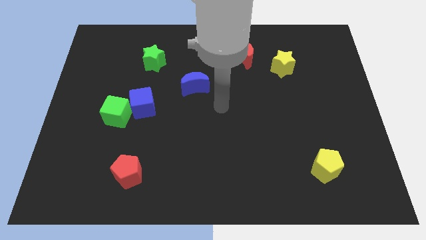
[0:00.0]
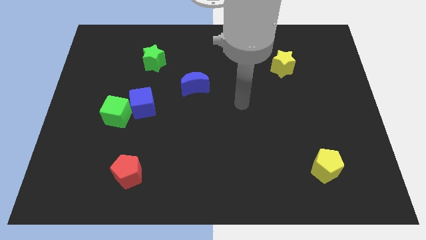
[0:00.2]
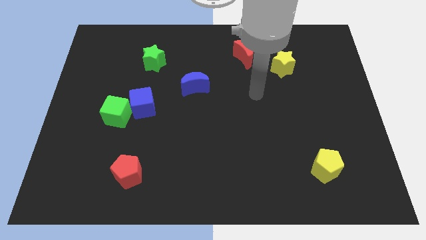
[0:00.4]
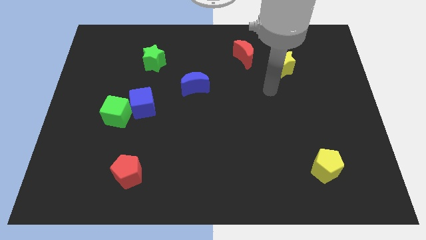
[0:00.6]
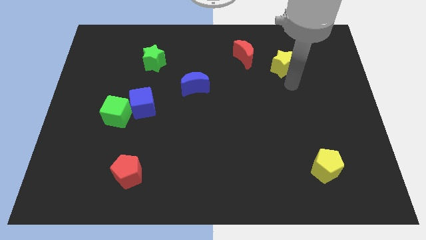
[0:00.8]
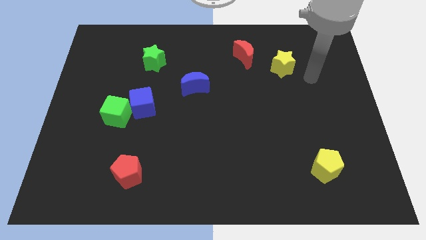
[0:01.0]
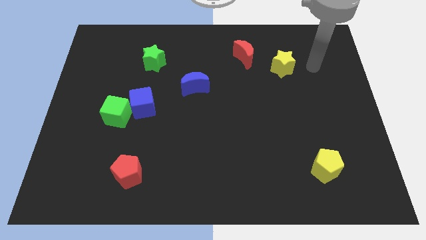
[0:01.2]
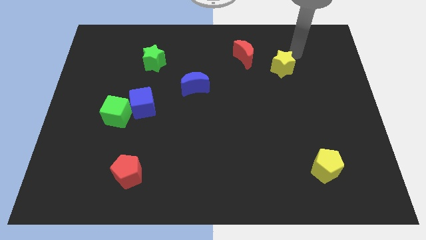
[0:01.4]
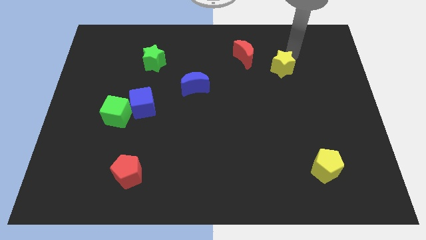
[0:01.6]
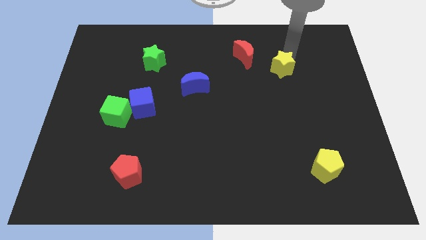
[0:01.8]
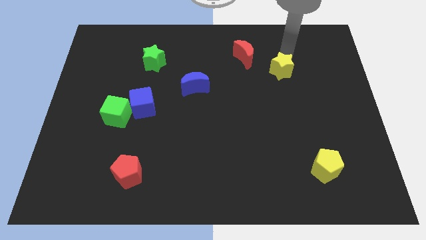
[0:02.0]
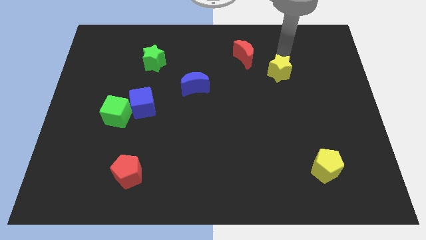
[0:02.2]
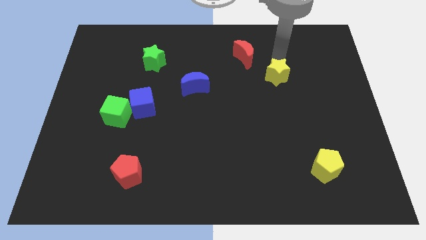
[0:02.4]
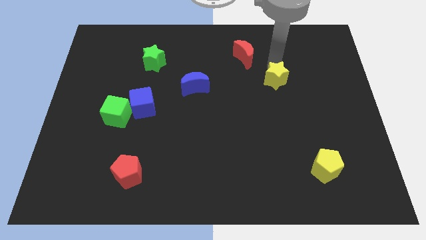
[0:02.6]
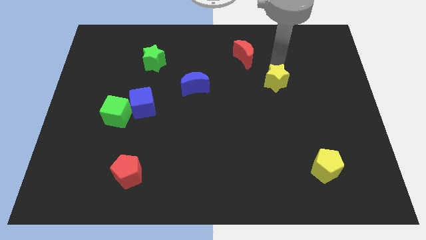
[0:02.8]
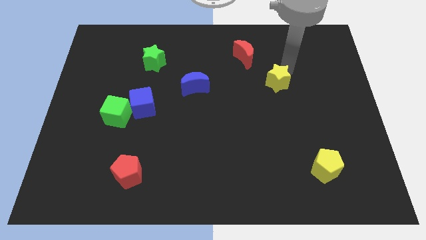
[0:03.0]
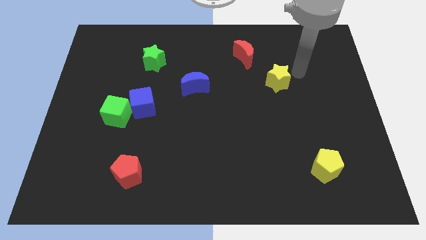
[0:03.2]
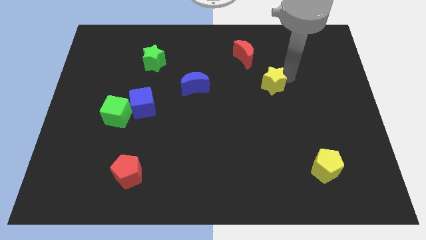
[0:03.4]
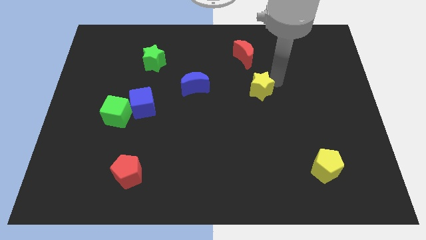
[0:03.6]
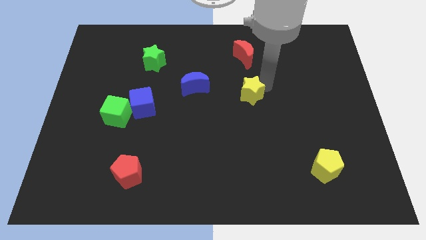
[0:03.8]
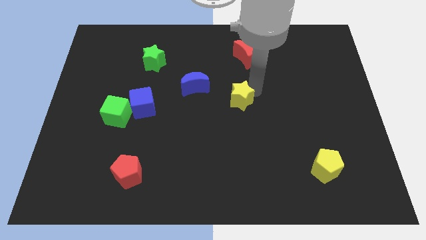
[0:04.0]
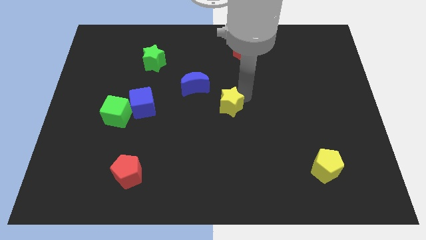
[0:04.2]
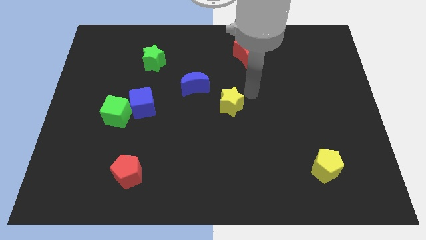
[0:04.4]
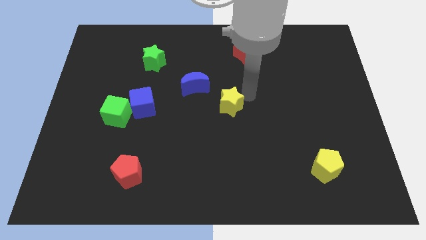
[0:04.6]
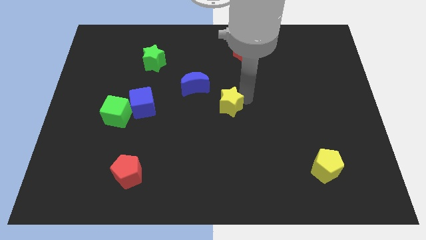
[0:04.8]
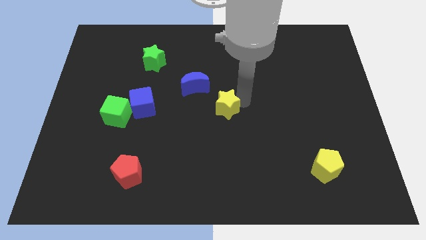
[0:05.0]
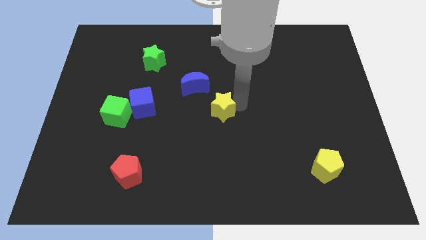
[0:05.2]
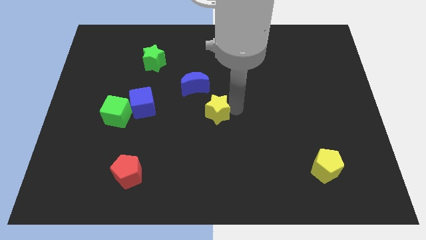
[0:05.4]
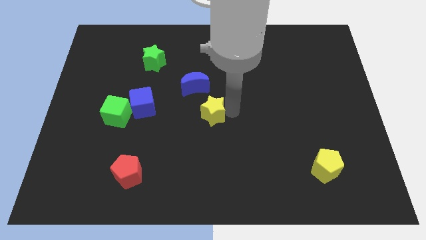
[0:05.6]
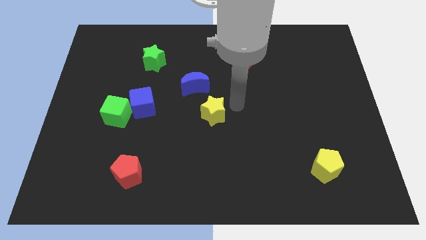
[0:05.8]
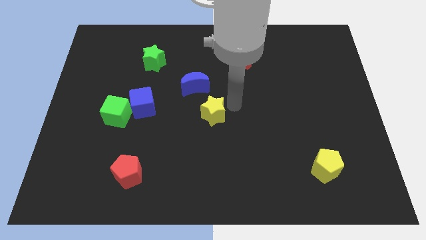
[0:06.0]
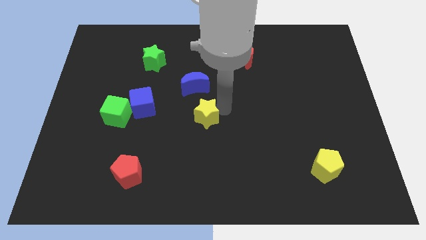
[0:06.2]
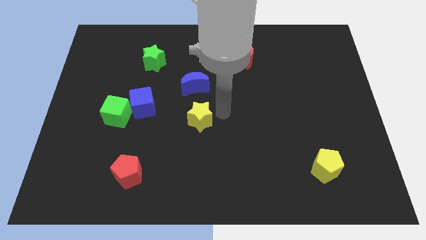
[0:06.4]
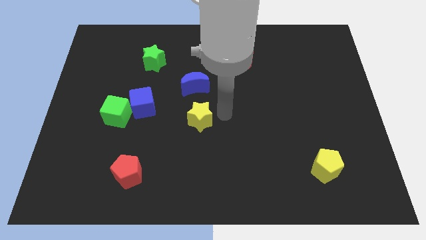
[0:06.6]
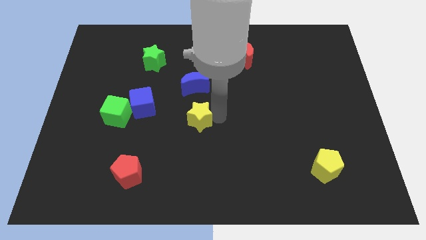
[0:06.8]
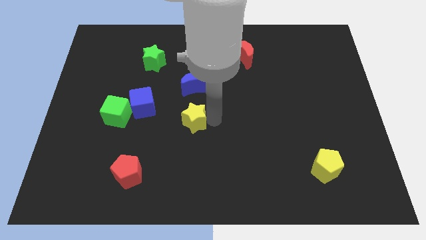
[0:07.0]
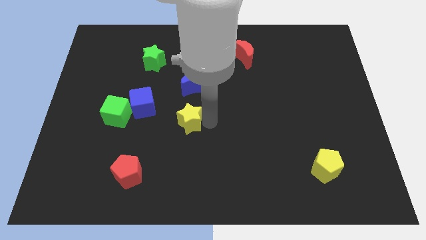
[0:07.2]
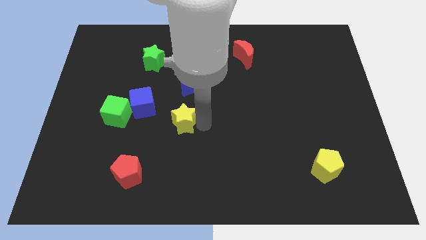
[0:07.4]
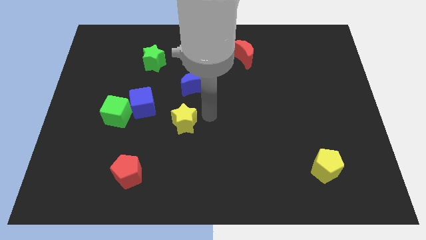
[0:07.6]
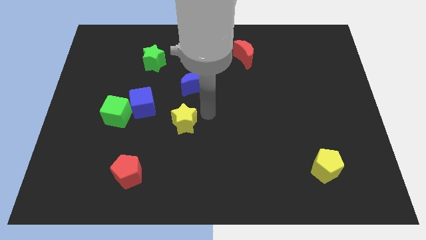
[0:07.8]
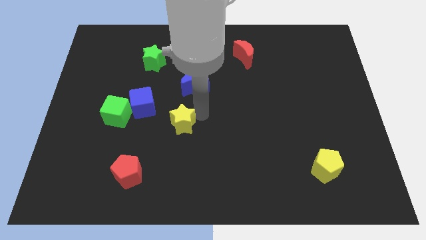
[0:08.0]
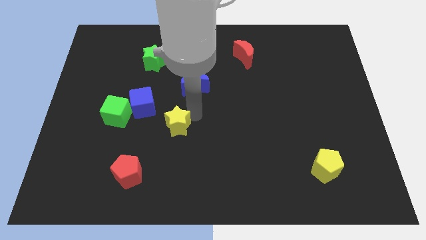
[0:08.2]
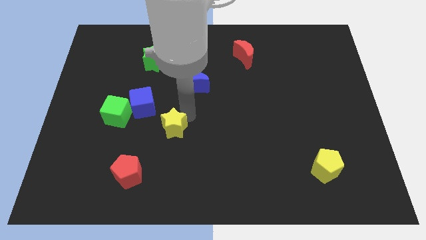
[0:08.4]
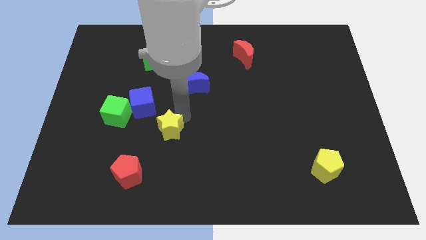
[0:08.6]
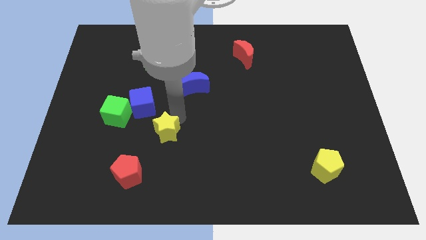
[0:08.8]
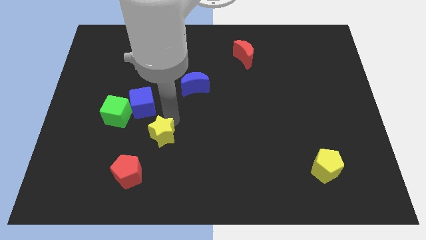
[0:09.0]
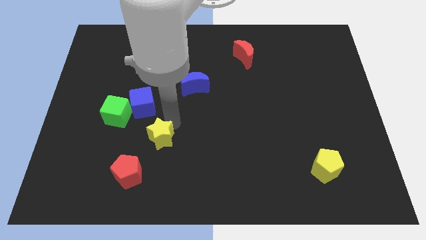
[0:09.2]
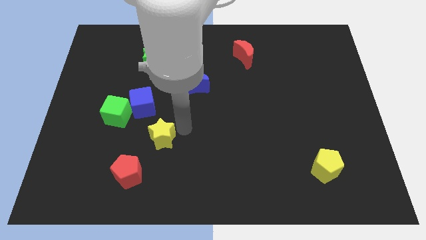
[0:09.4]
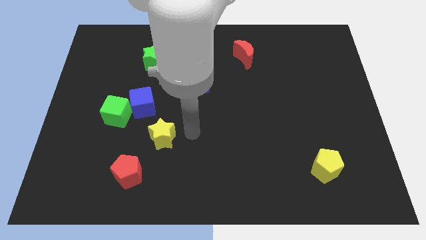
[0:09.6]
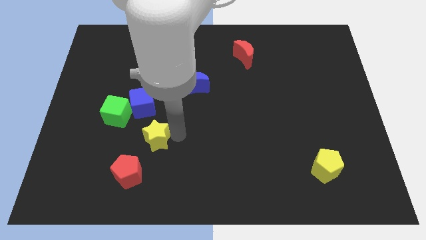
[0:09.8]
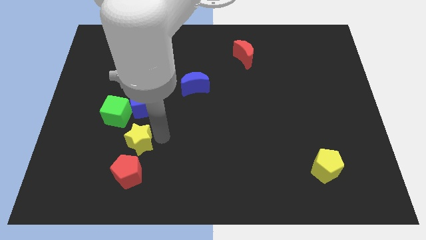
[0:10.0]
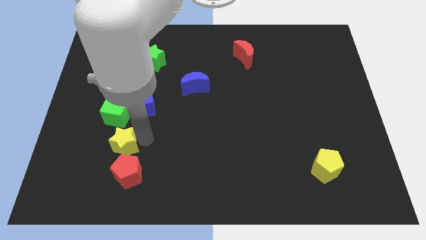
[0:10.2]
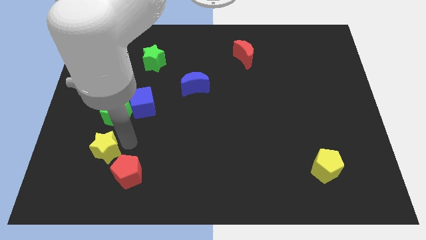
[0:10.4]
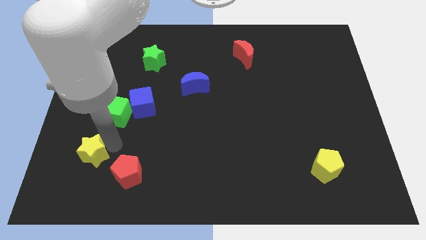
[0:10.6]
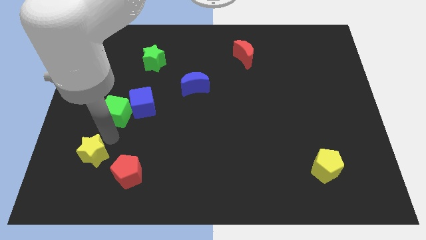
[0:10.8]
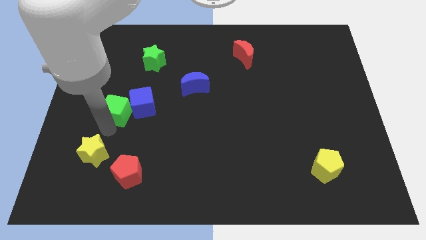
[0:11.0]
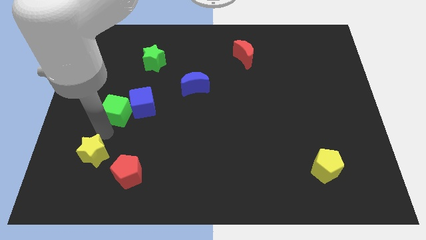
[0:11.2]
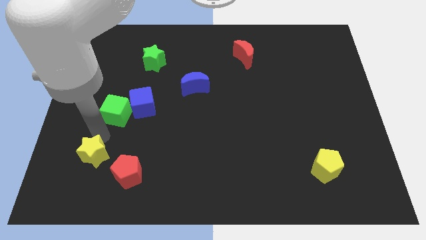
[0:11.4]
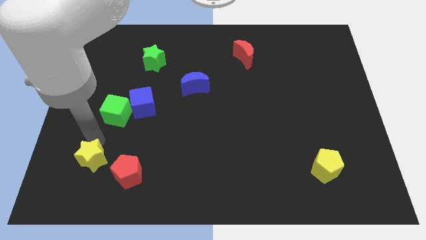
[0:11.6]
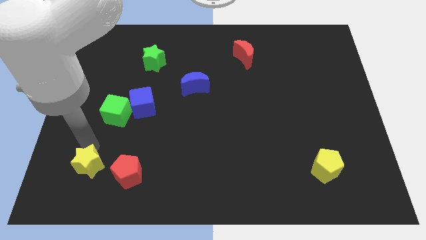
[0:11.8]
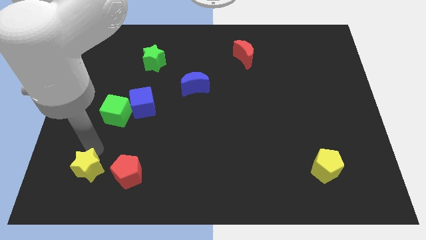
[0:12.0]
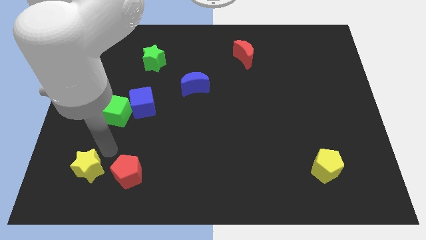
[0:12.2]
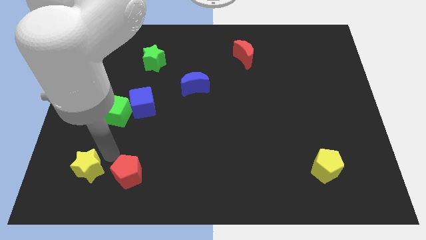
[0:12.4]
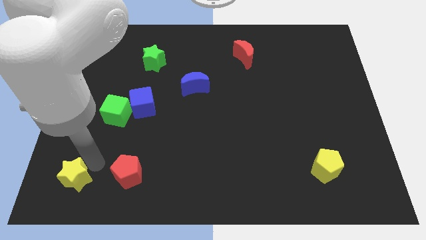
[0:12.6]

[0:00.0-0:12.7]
push the yellow star to the bottom left
